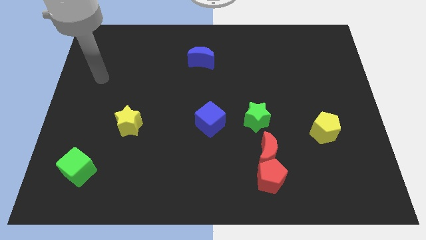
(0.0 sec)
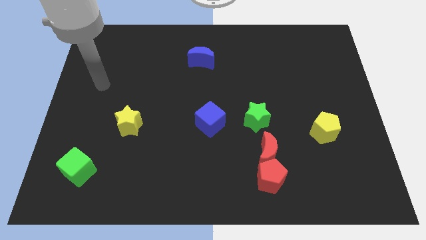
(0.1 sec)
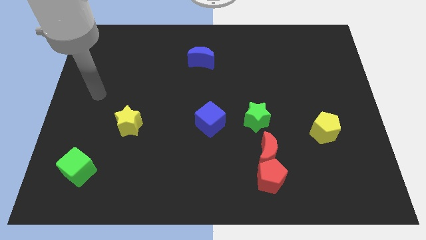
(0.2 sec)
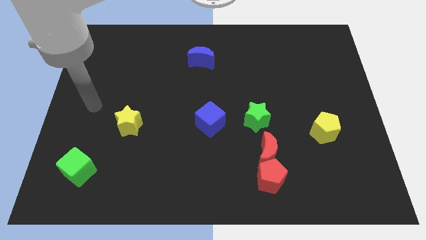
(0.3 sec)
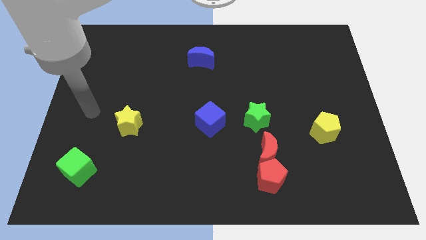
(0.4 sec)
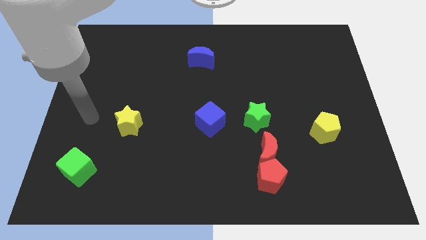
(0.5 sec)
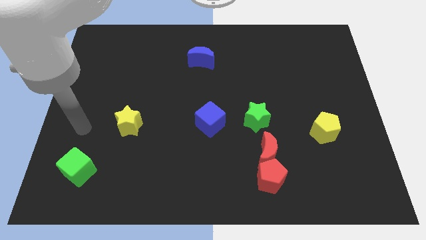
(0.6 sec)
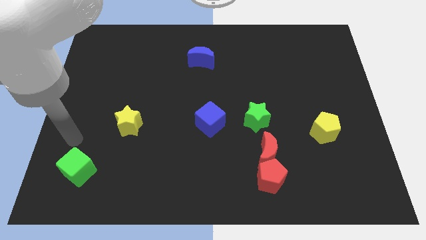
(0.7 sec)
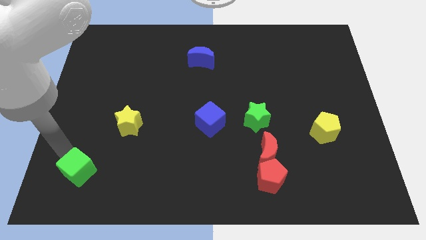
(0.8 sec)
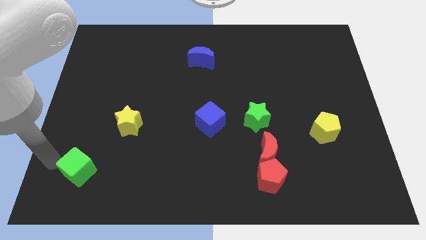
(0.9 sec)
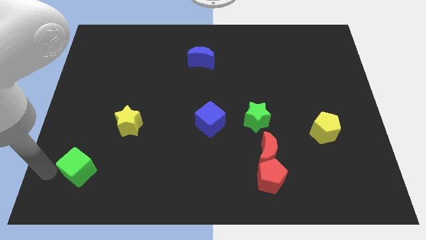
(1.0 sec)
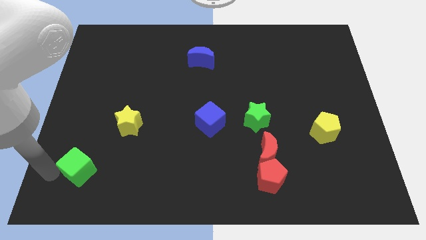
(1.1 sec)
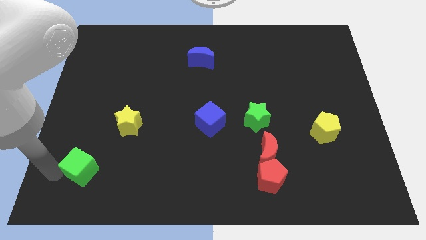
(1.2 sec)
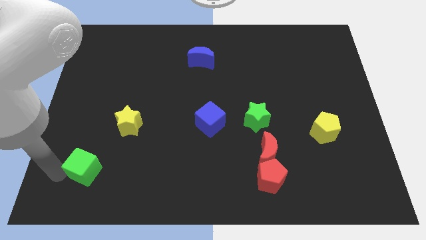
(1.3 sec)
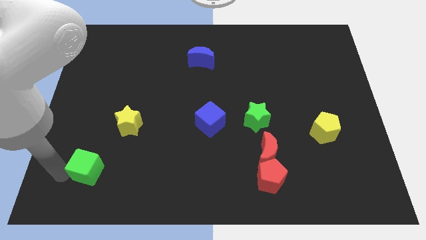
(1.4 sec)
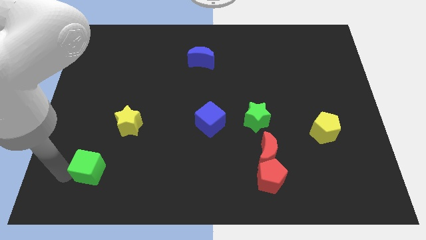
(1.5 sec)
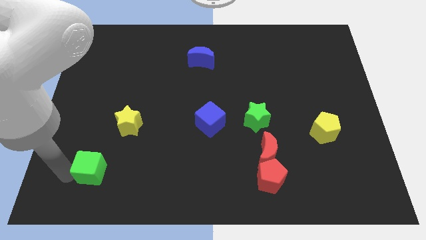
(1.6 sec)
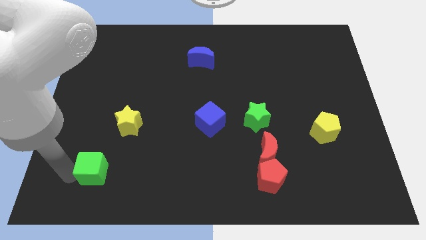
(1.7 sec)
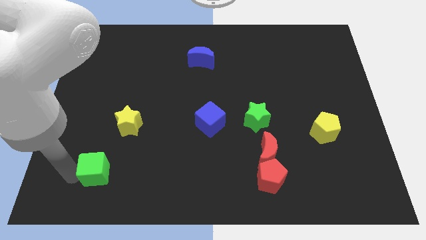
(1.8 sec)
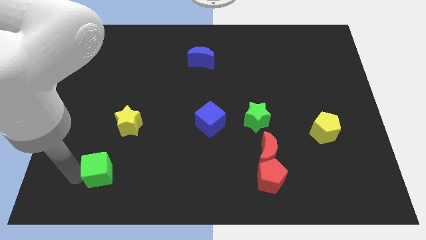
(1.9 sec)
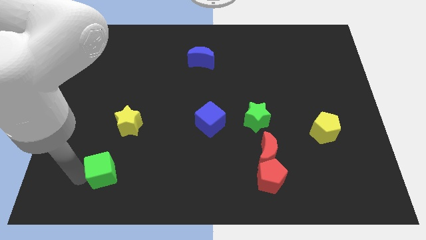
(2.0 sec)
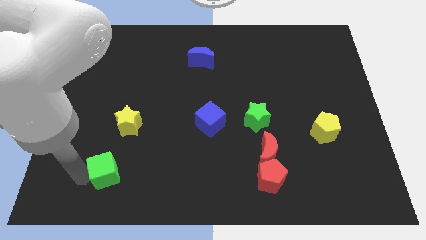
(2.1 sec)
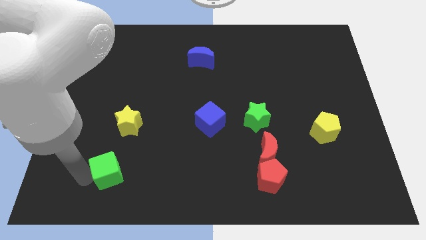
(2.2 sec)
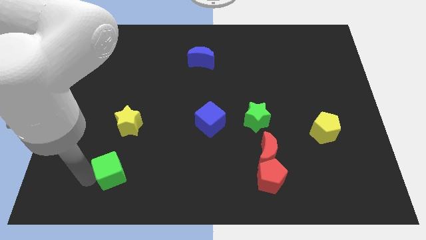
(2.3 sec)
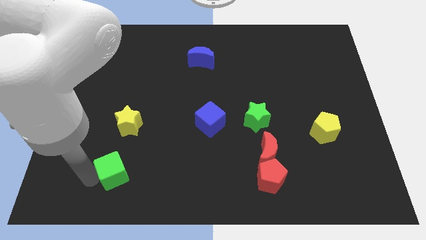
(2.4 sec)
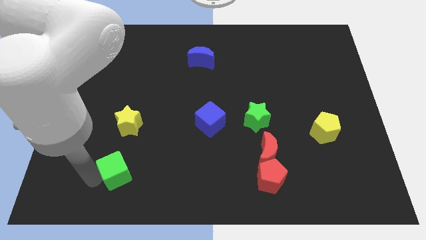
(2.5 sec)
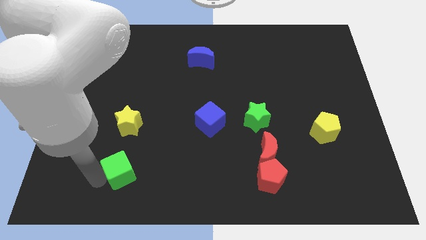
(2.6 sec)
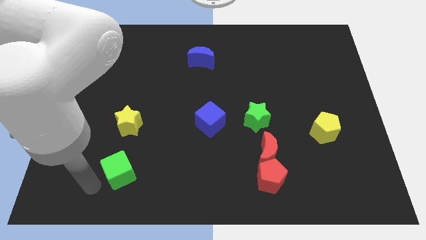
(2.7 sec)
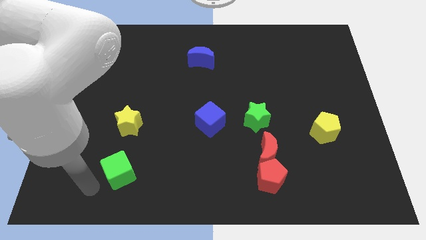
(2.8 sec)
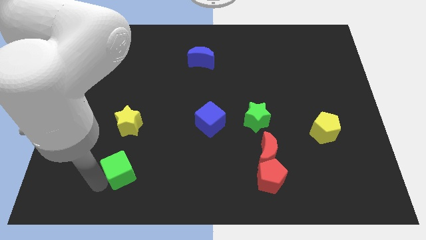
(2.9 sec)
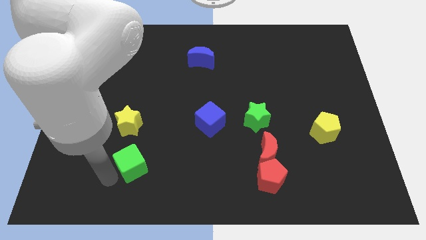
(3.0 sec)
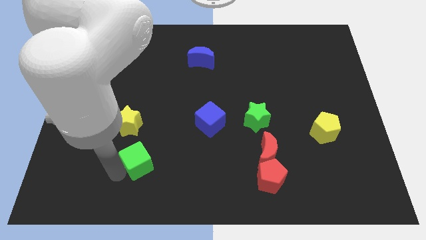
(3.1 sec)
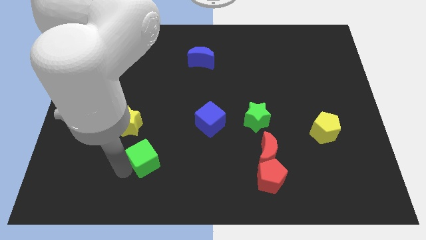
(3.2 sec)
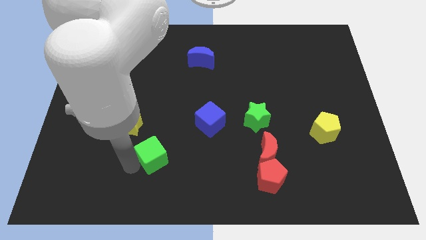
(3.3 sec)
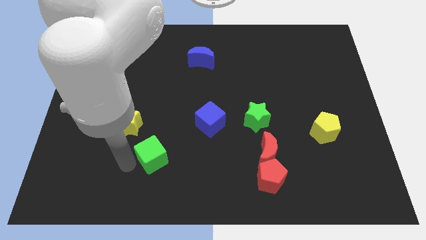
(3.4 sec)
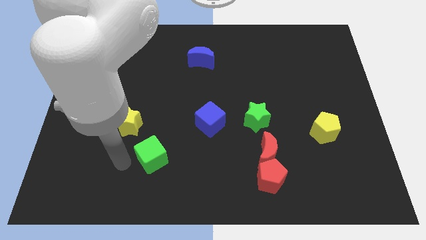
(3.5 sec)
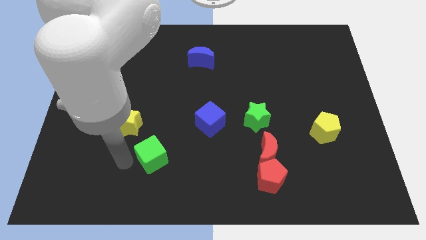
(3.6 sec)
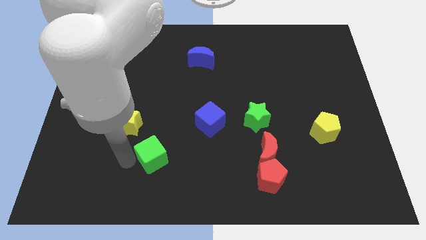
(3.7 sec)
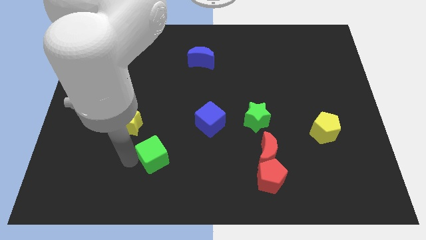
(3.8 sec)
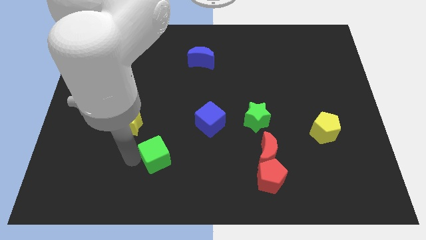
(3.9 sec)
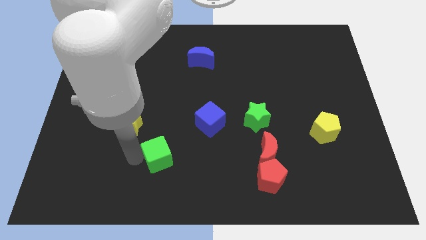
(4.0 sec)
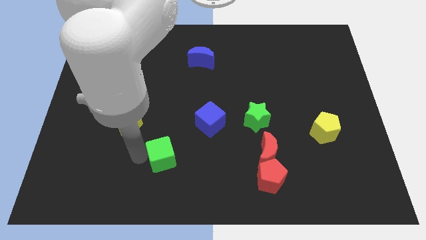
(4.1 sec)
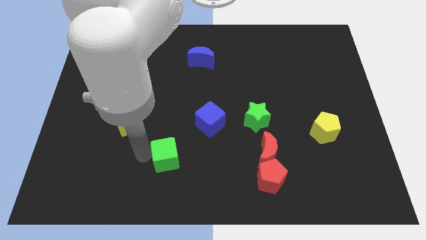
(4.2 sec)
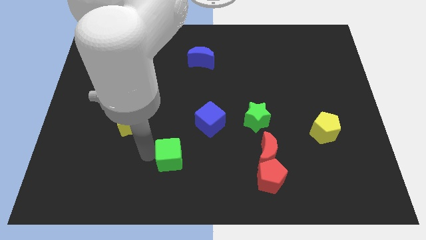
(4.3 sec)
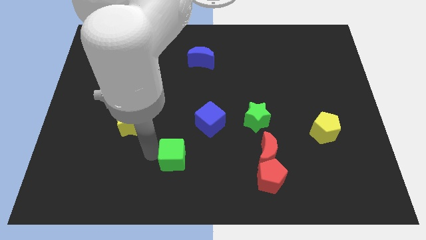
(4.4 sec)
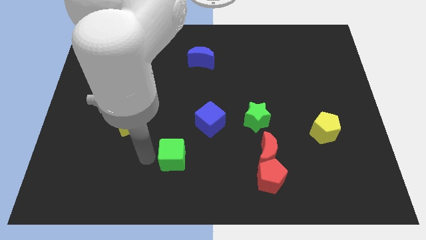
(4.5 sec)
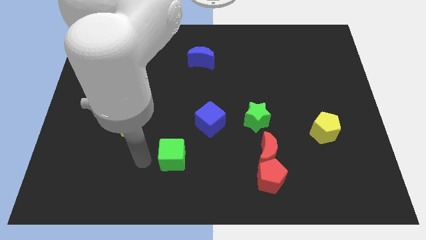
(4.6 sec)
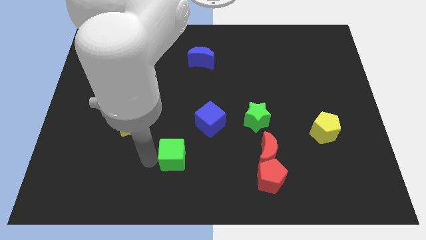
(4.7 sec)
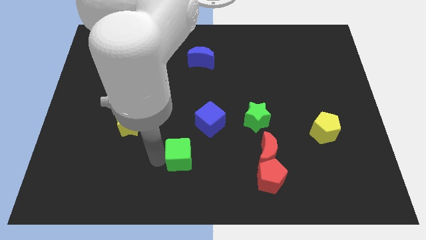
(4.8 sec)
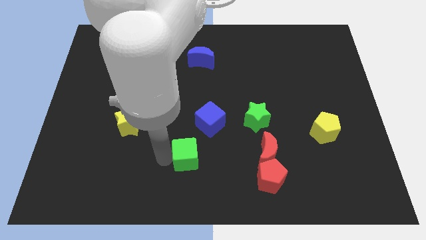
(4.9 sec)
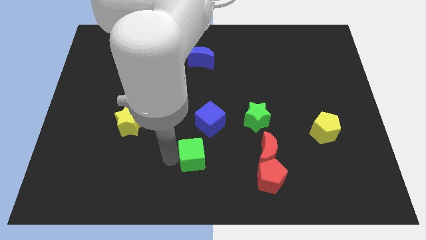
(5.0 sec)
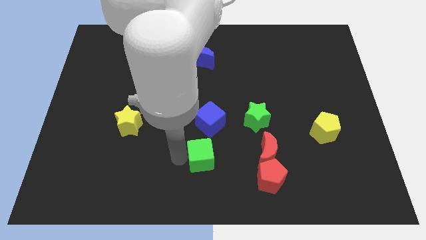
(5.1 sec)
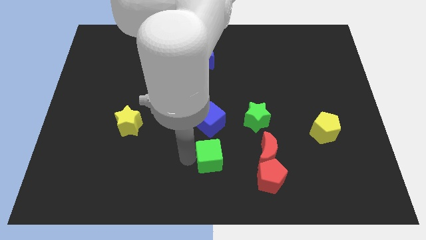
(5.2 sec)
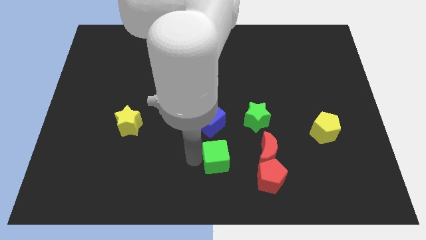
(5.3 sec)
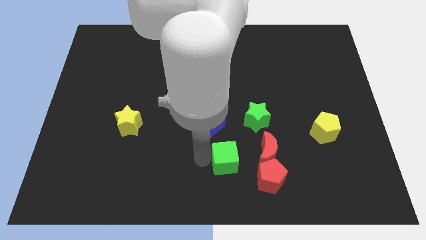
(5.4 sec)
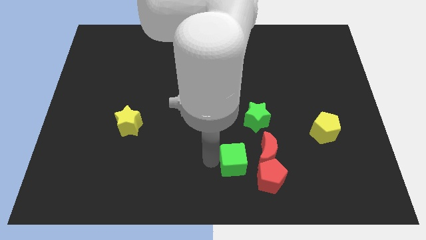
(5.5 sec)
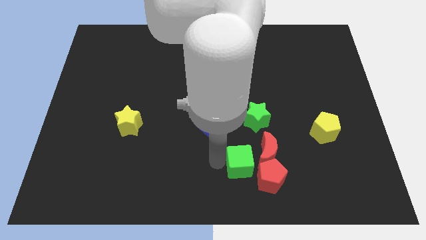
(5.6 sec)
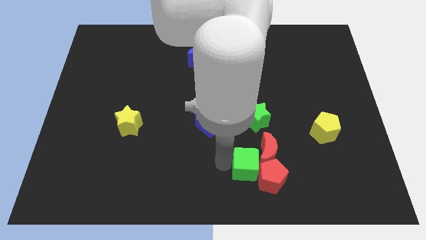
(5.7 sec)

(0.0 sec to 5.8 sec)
move the green cube towards the red moon

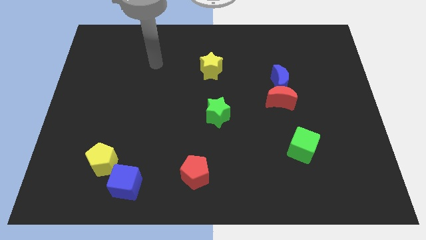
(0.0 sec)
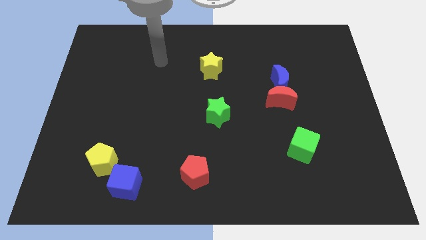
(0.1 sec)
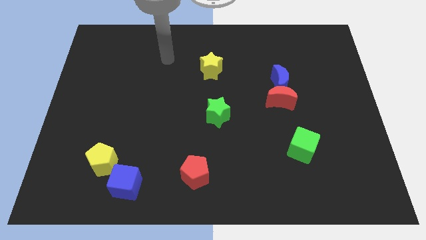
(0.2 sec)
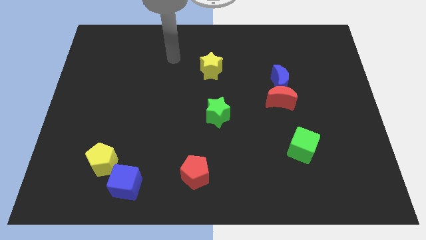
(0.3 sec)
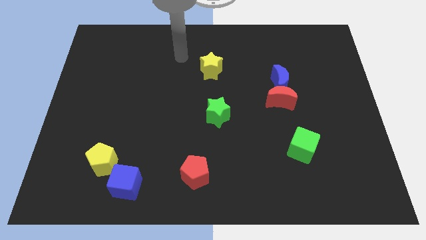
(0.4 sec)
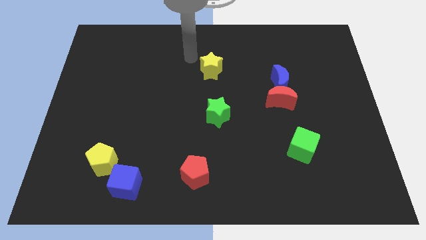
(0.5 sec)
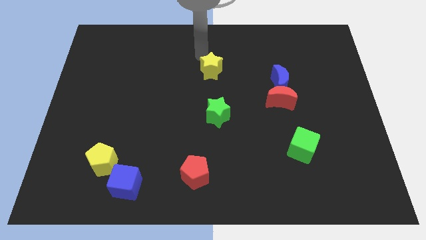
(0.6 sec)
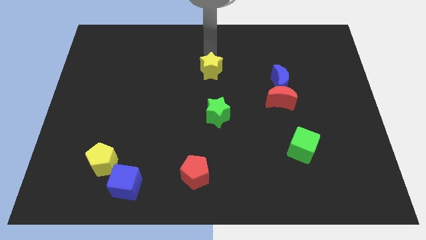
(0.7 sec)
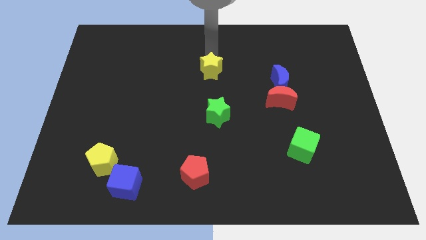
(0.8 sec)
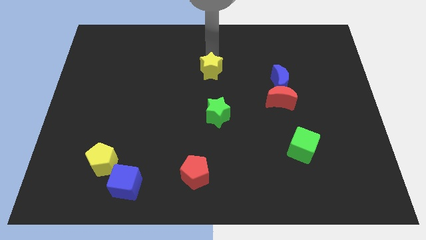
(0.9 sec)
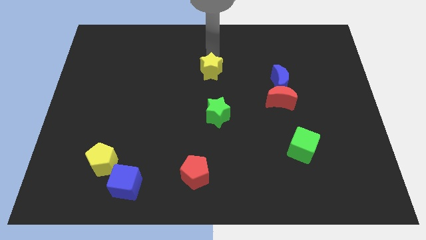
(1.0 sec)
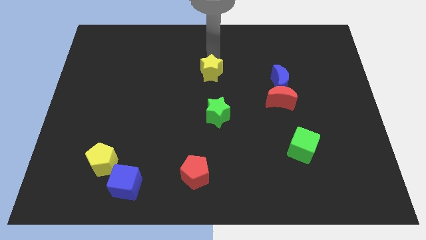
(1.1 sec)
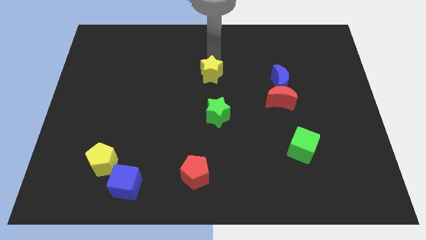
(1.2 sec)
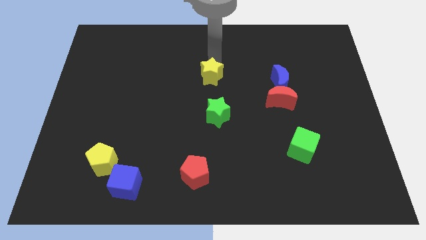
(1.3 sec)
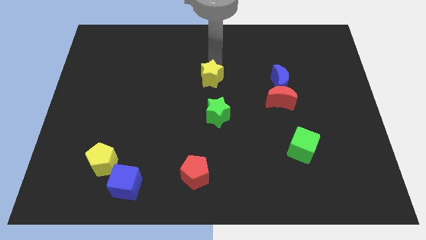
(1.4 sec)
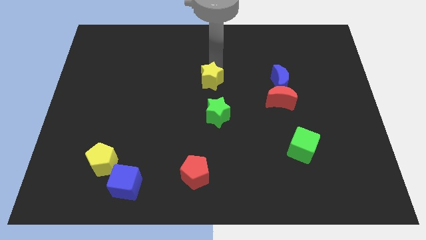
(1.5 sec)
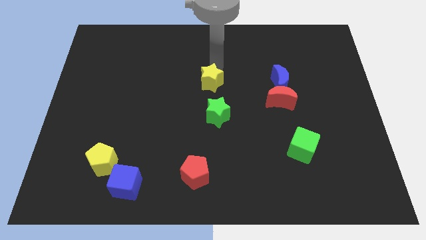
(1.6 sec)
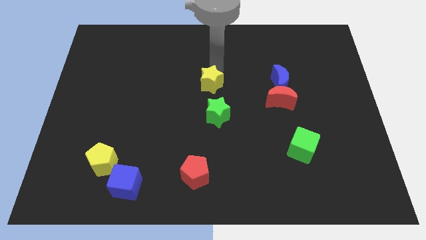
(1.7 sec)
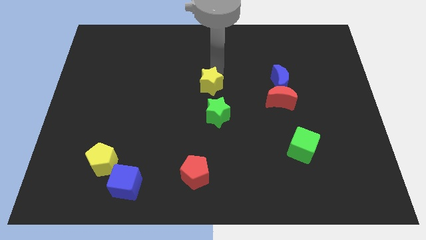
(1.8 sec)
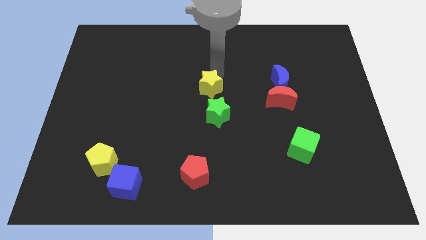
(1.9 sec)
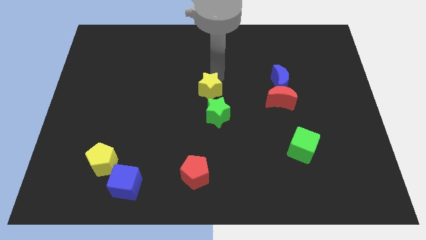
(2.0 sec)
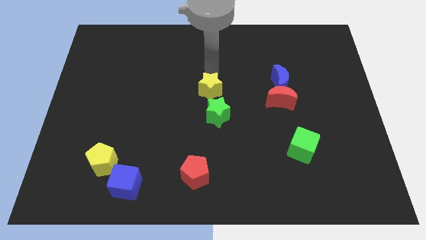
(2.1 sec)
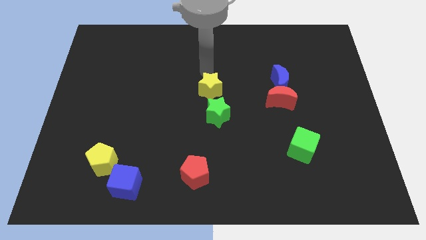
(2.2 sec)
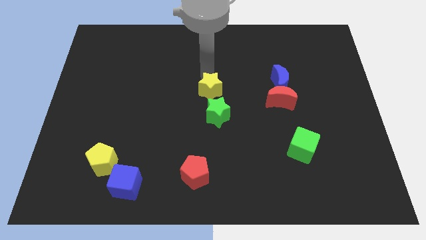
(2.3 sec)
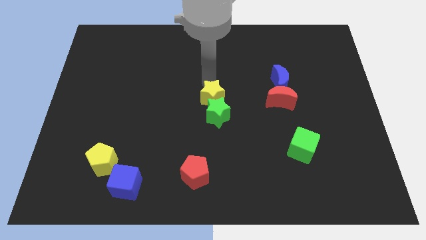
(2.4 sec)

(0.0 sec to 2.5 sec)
slide the yellow star close to the green star
